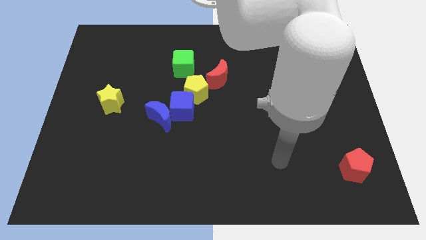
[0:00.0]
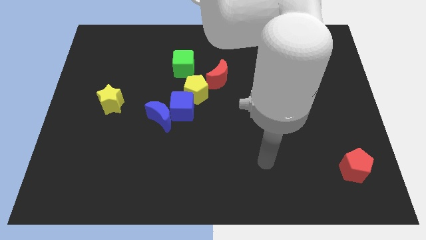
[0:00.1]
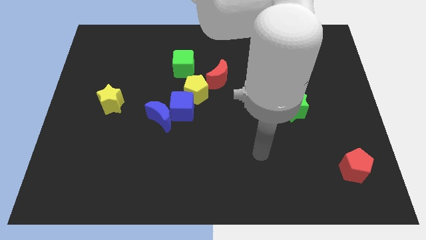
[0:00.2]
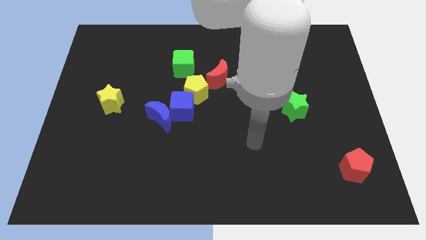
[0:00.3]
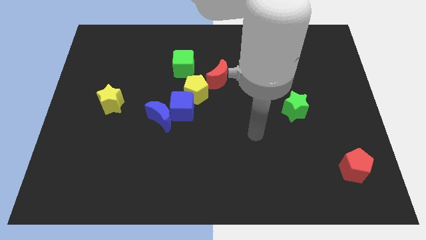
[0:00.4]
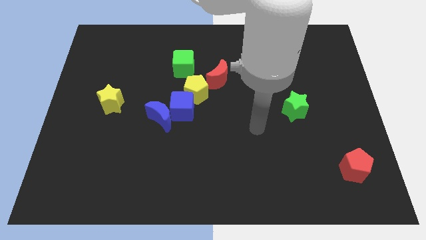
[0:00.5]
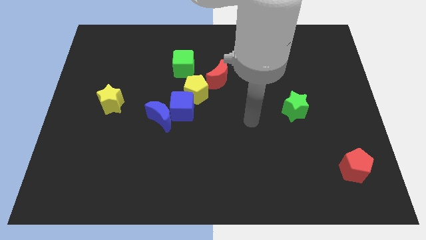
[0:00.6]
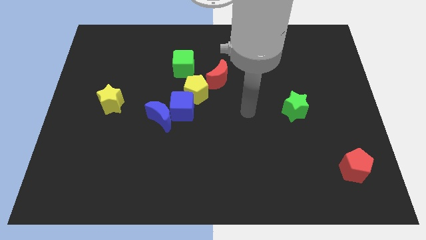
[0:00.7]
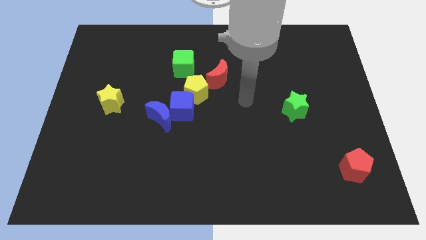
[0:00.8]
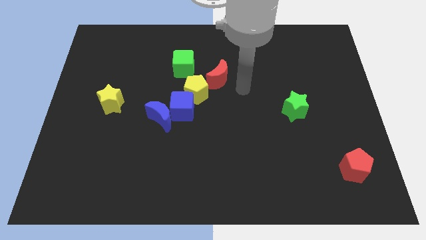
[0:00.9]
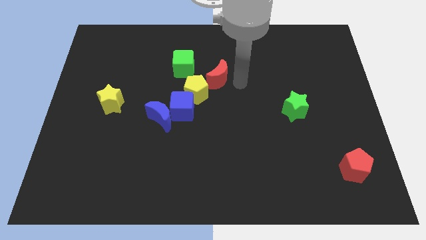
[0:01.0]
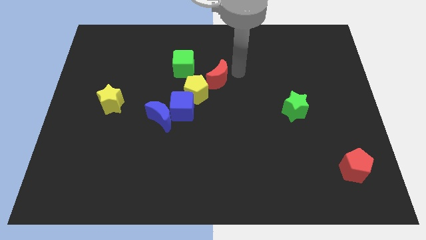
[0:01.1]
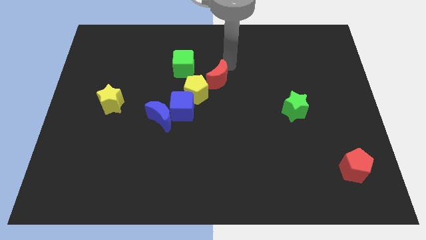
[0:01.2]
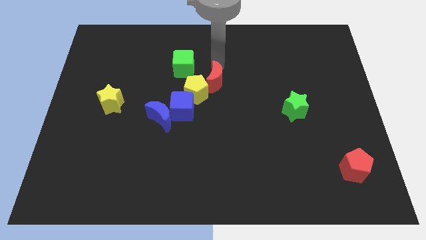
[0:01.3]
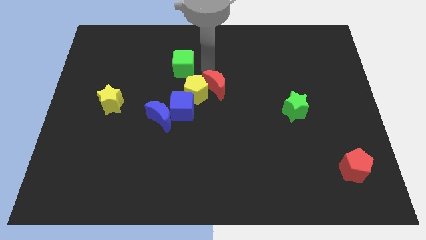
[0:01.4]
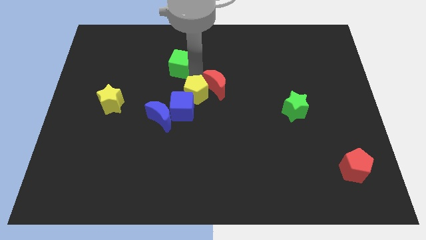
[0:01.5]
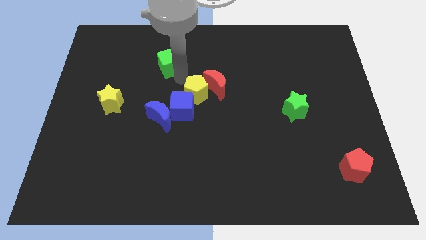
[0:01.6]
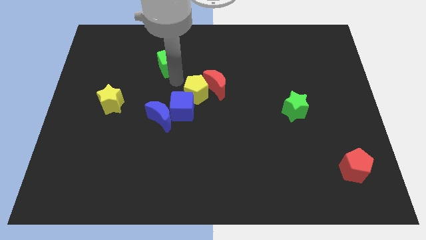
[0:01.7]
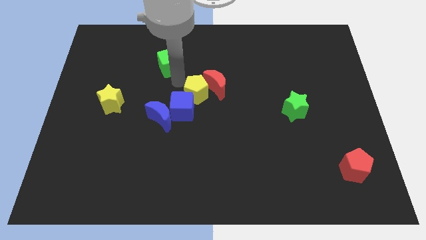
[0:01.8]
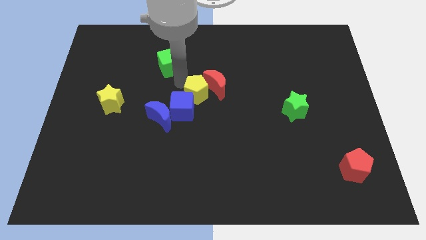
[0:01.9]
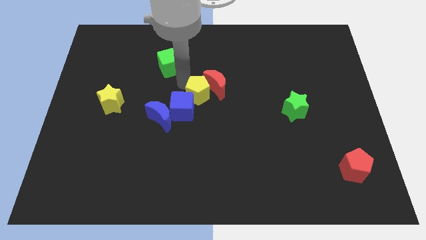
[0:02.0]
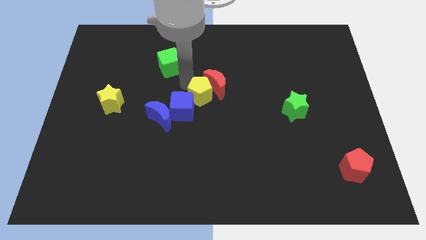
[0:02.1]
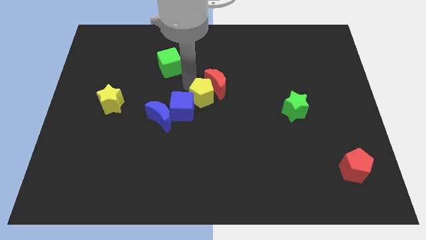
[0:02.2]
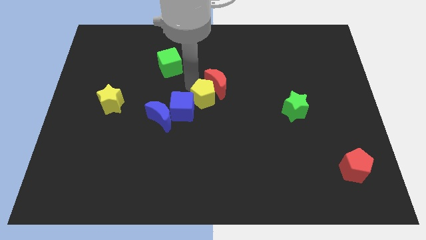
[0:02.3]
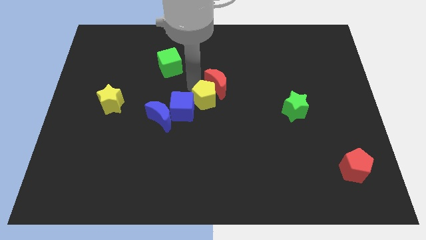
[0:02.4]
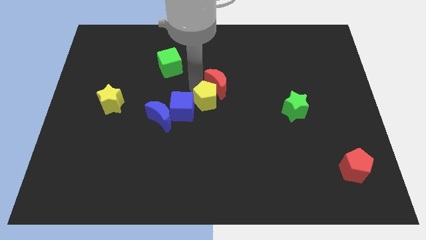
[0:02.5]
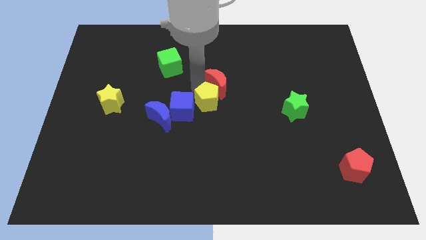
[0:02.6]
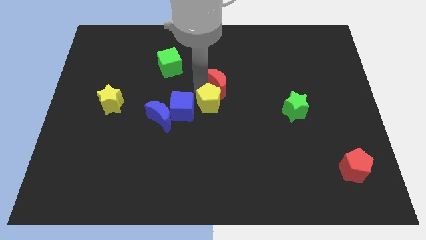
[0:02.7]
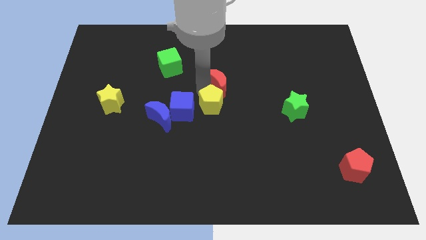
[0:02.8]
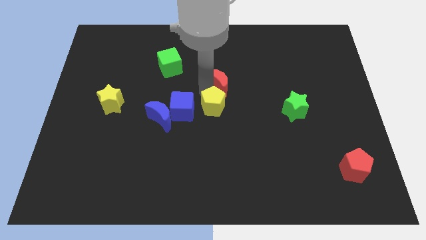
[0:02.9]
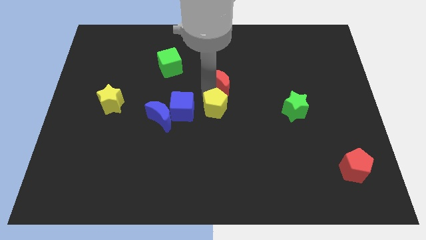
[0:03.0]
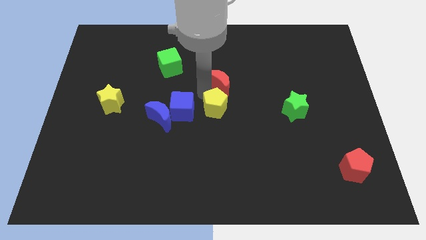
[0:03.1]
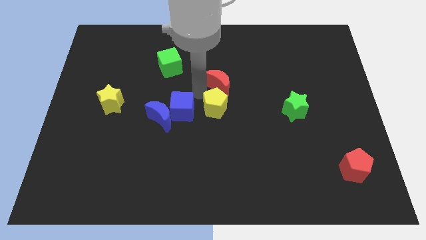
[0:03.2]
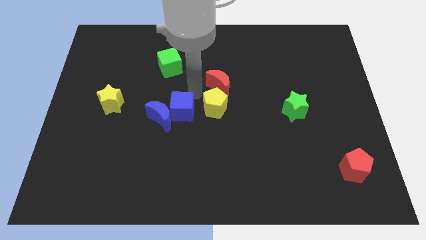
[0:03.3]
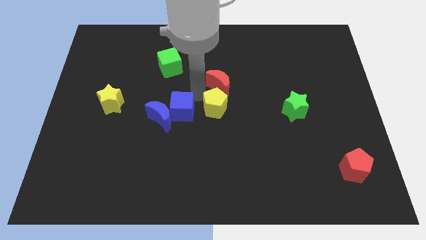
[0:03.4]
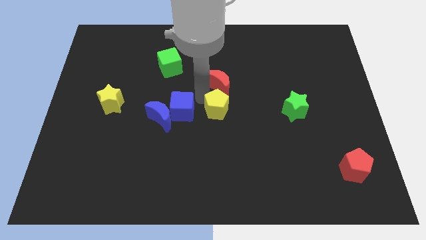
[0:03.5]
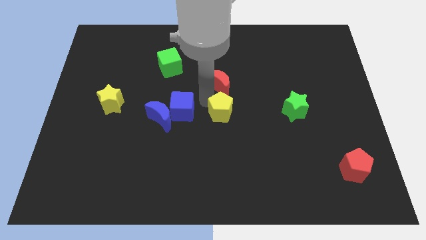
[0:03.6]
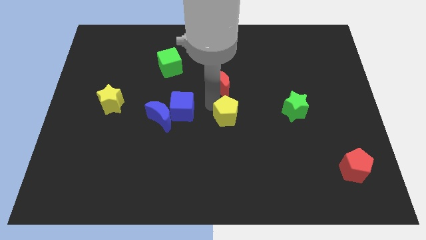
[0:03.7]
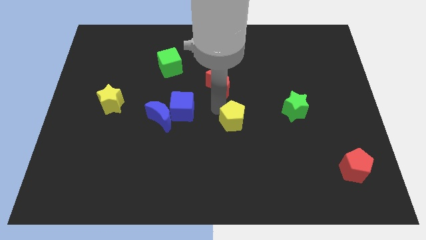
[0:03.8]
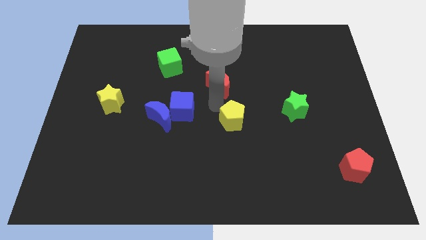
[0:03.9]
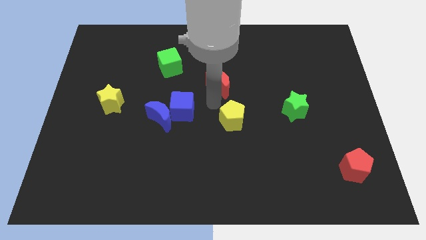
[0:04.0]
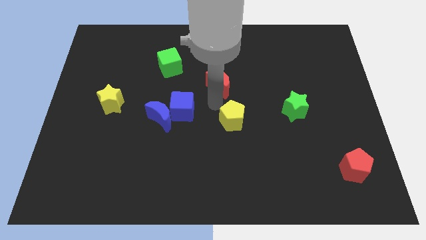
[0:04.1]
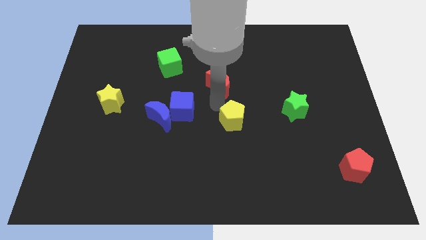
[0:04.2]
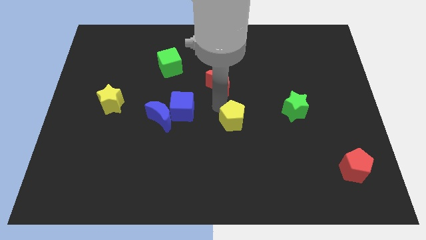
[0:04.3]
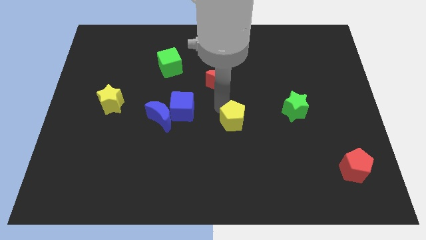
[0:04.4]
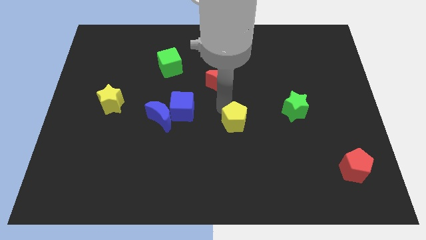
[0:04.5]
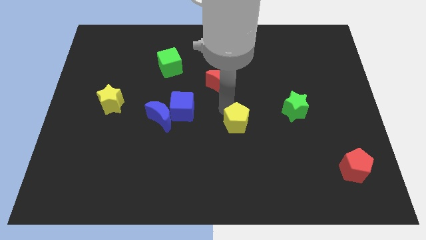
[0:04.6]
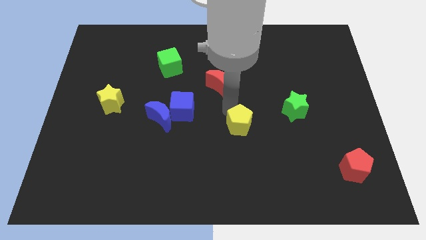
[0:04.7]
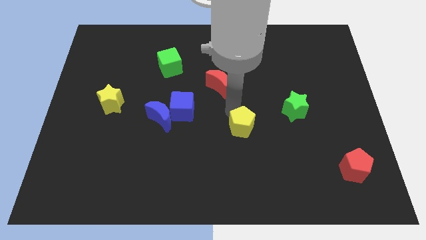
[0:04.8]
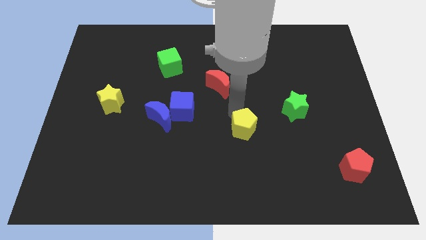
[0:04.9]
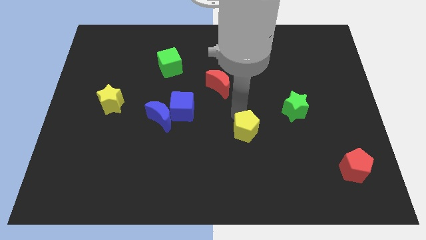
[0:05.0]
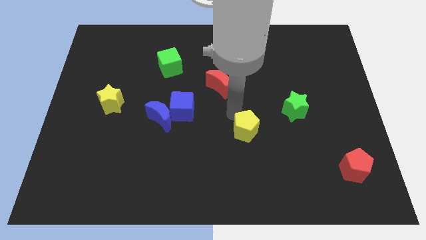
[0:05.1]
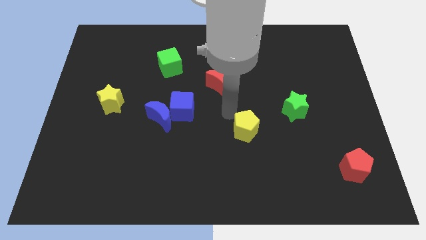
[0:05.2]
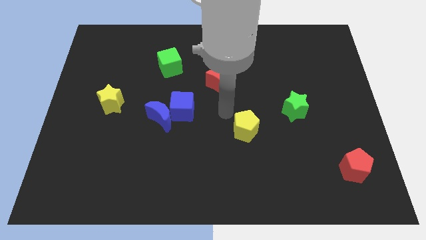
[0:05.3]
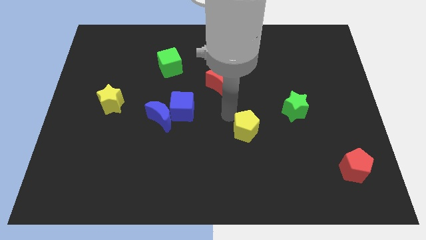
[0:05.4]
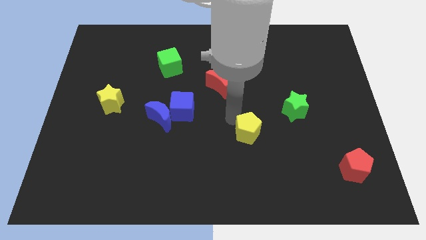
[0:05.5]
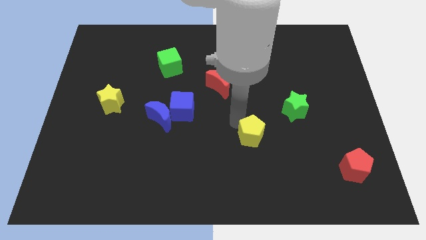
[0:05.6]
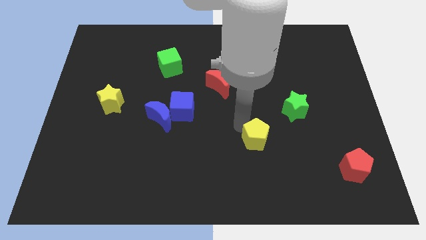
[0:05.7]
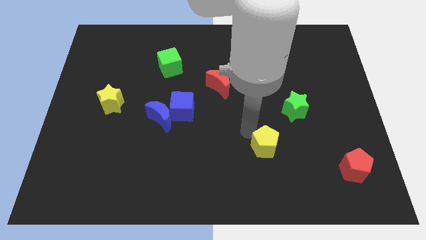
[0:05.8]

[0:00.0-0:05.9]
slide the yellow pentagon downwards and then right

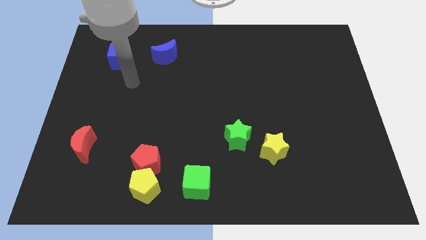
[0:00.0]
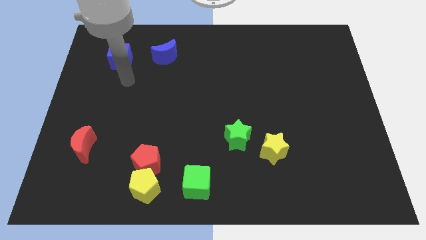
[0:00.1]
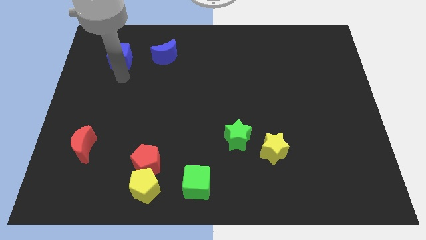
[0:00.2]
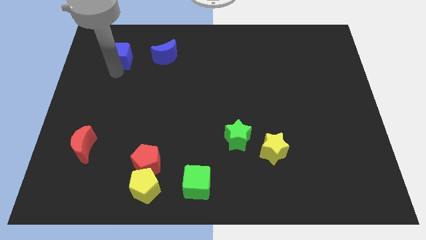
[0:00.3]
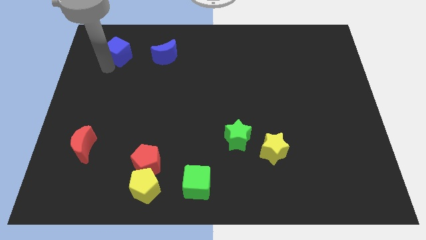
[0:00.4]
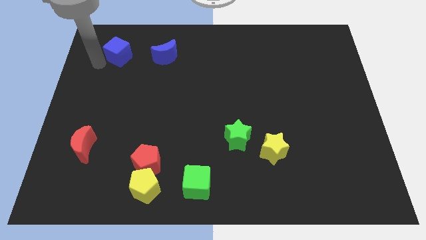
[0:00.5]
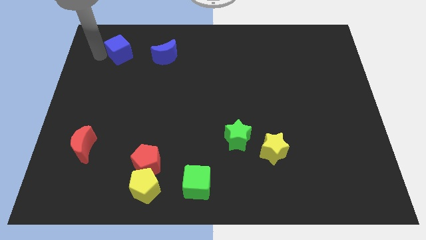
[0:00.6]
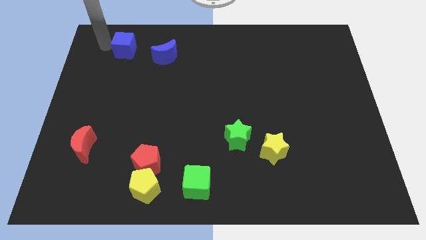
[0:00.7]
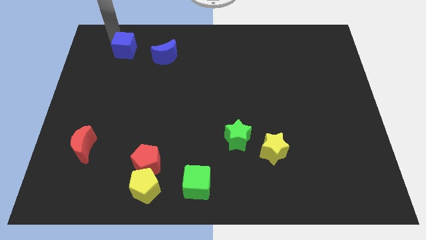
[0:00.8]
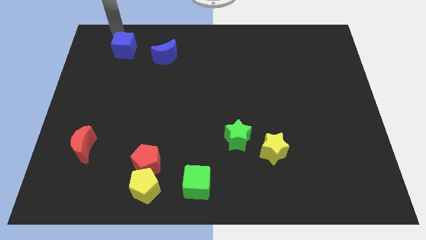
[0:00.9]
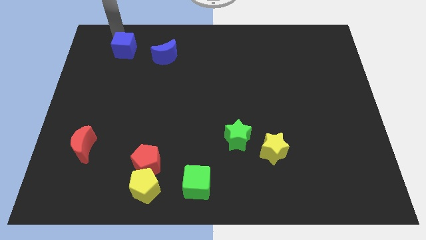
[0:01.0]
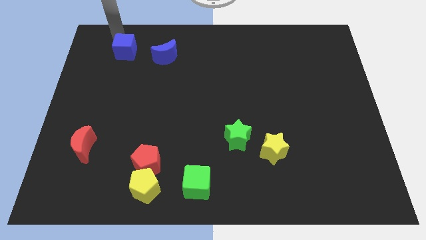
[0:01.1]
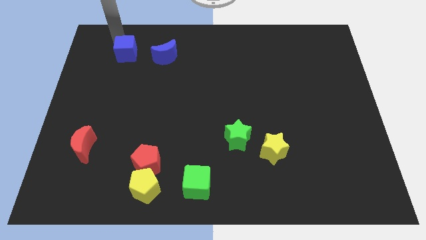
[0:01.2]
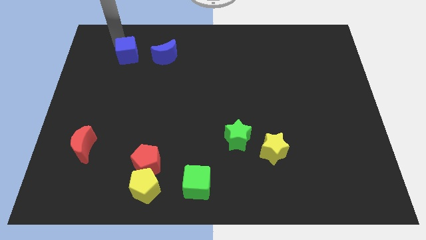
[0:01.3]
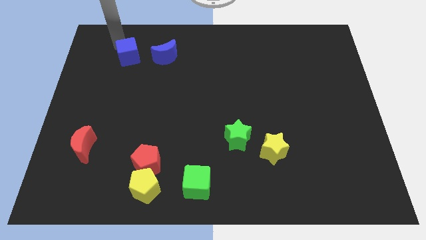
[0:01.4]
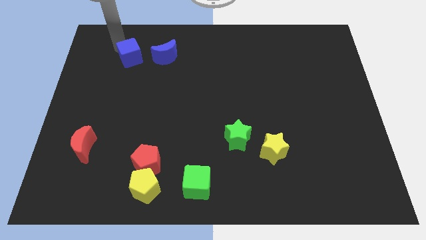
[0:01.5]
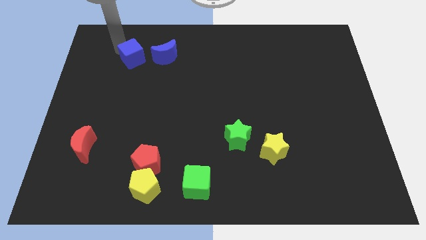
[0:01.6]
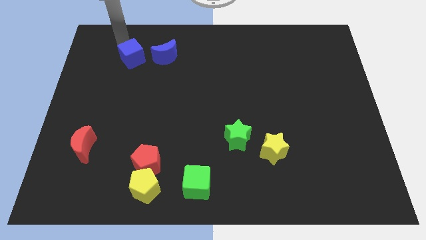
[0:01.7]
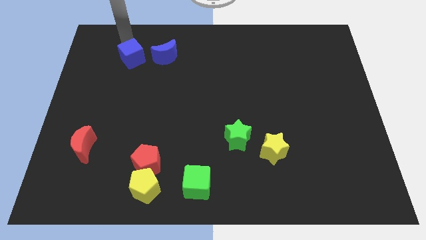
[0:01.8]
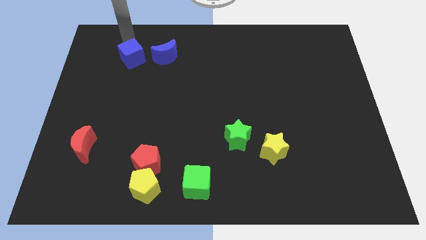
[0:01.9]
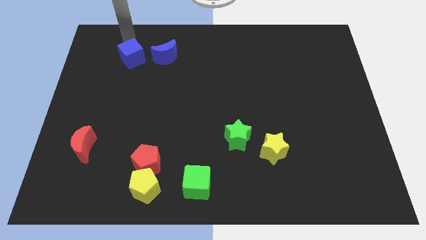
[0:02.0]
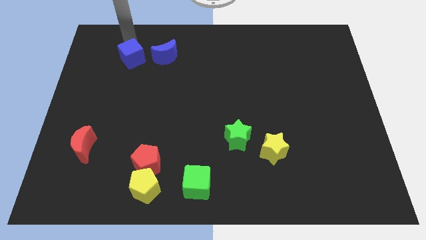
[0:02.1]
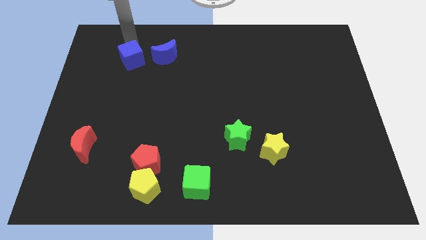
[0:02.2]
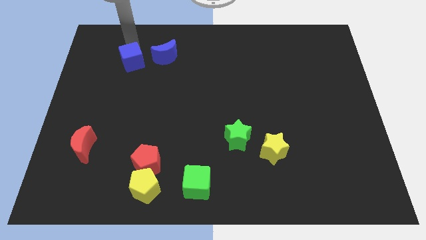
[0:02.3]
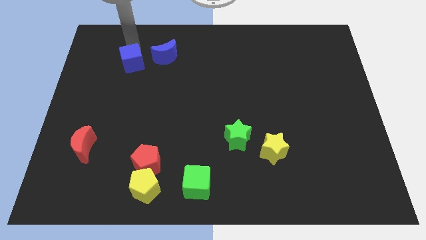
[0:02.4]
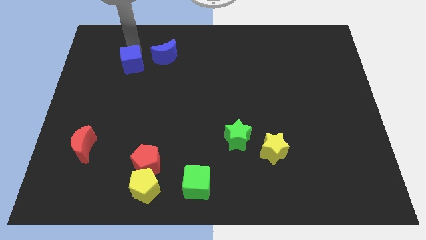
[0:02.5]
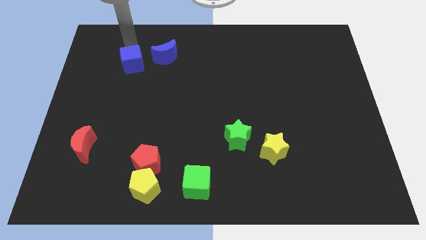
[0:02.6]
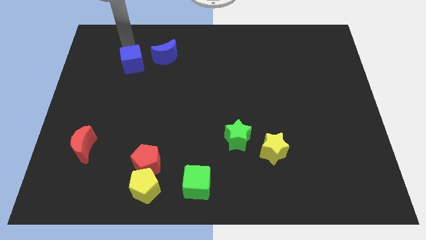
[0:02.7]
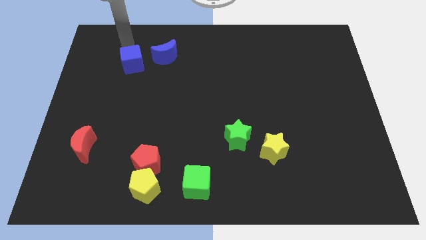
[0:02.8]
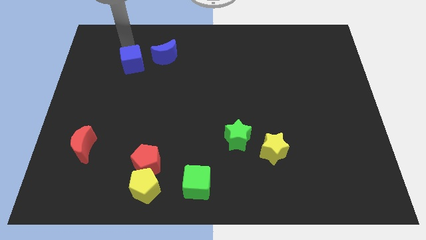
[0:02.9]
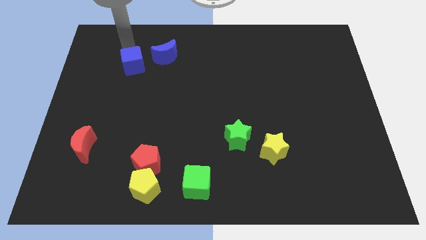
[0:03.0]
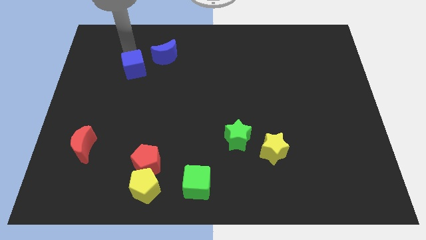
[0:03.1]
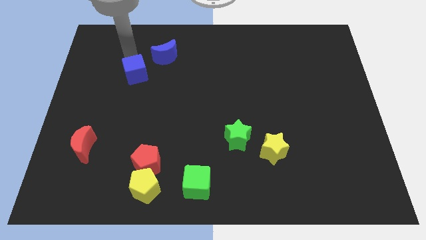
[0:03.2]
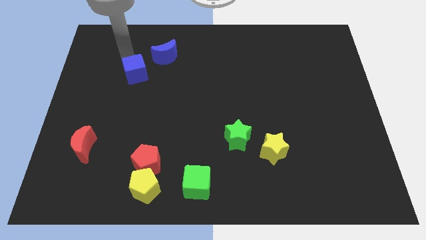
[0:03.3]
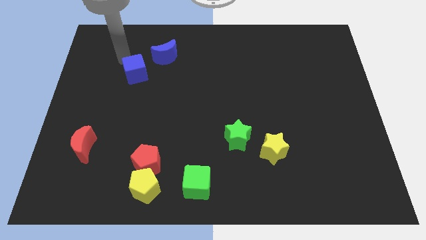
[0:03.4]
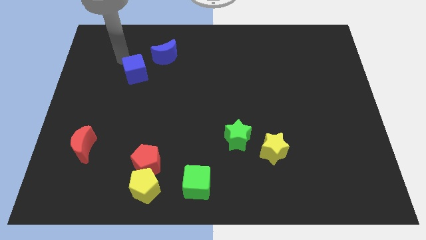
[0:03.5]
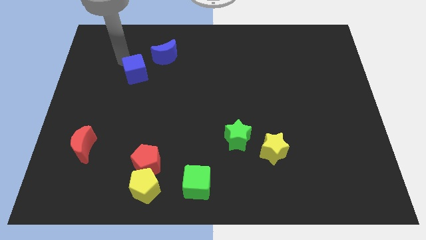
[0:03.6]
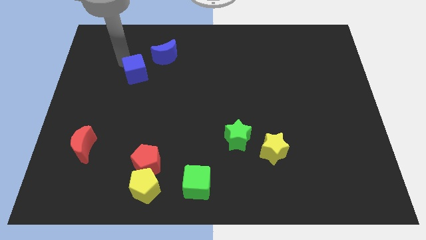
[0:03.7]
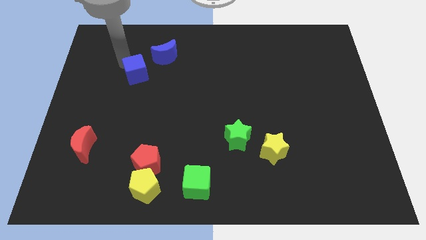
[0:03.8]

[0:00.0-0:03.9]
move the blue cube downwards and right a bit
